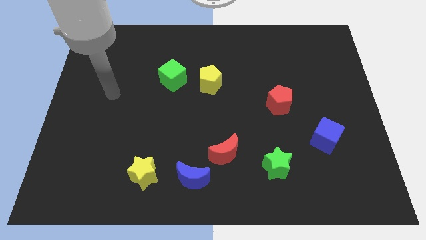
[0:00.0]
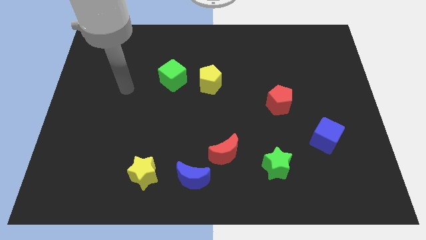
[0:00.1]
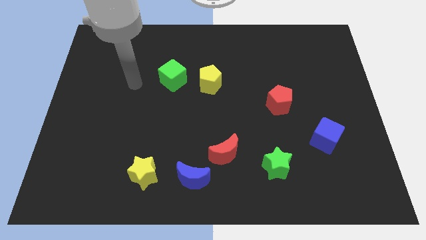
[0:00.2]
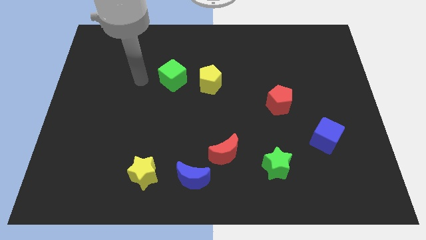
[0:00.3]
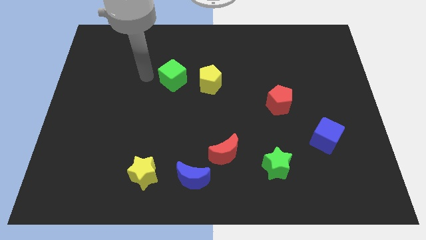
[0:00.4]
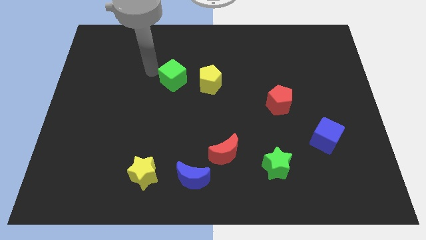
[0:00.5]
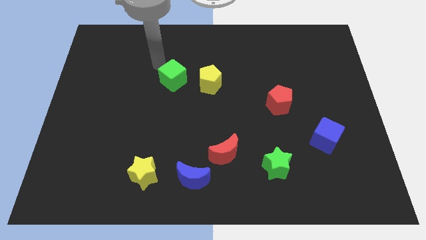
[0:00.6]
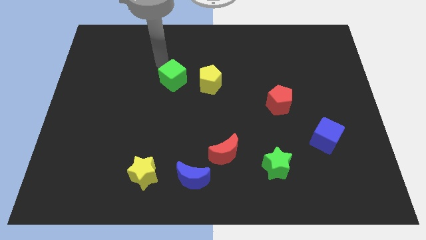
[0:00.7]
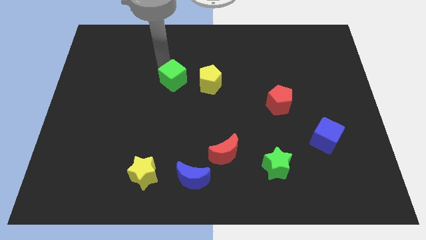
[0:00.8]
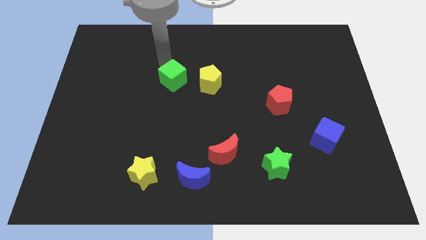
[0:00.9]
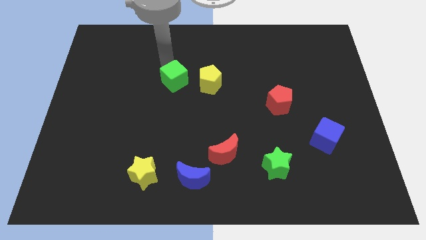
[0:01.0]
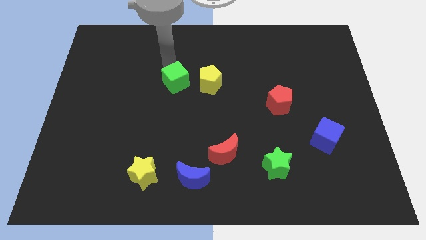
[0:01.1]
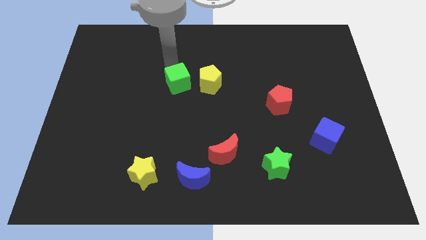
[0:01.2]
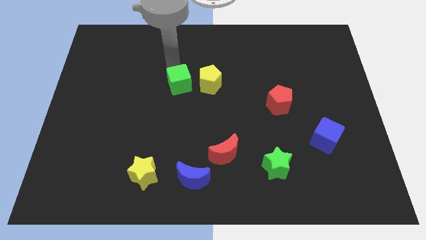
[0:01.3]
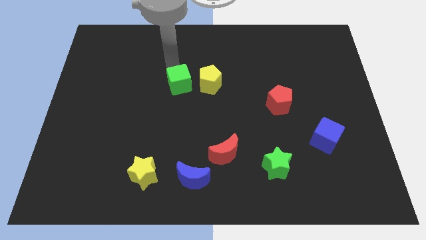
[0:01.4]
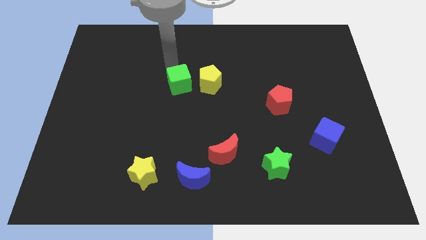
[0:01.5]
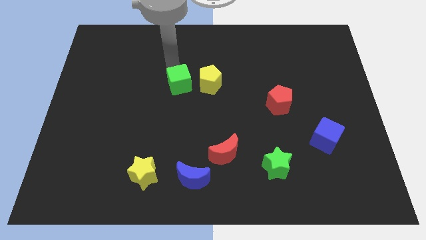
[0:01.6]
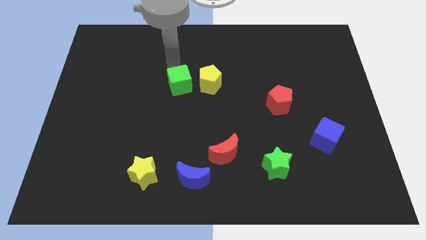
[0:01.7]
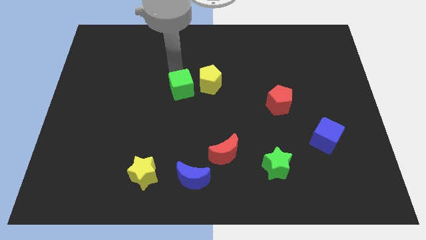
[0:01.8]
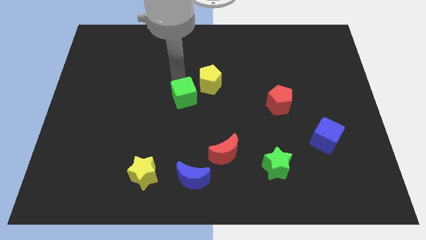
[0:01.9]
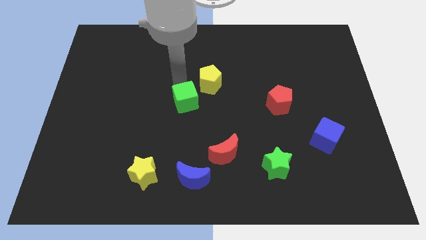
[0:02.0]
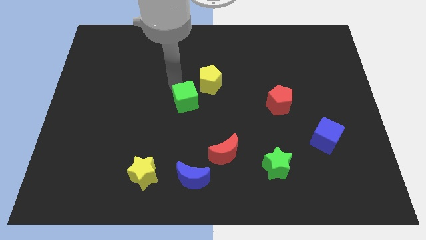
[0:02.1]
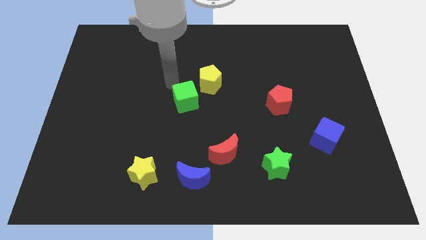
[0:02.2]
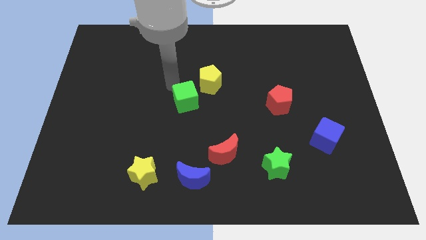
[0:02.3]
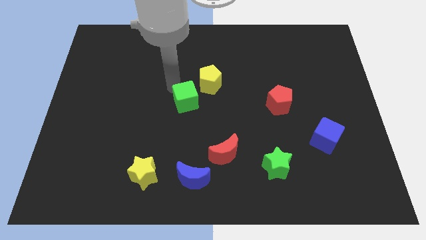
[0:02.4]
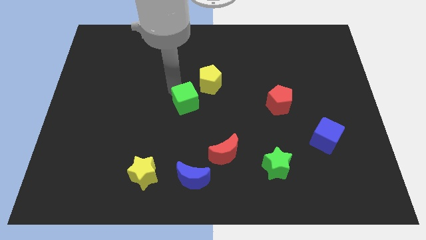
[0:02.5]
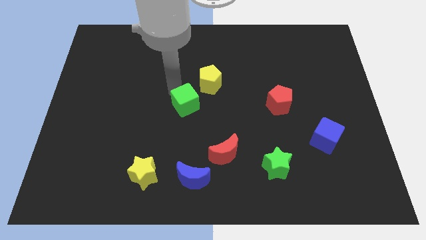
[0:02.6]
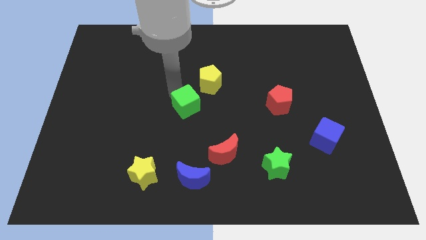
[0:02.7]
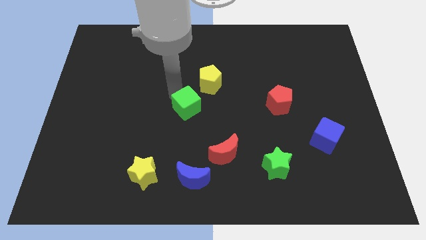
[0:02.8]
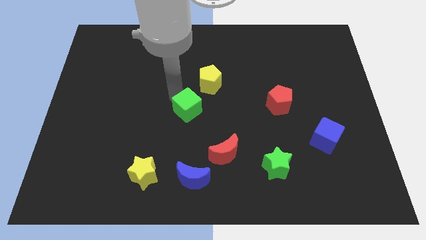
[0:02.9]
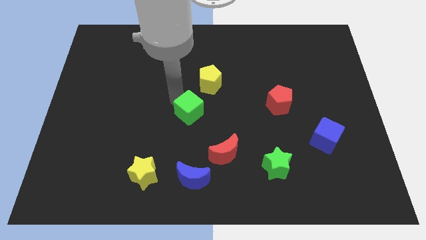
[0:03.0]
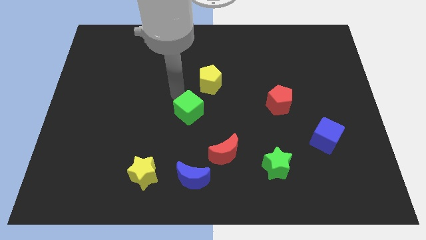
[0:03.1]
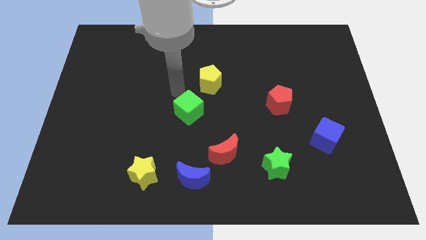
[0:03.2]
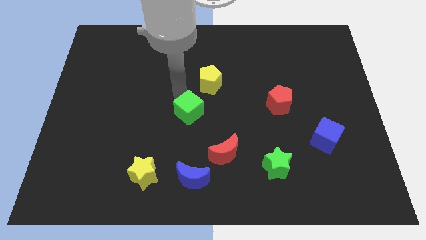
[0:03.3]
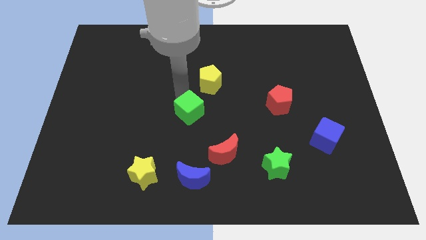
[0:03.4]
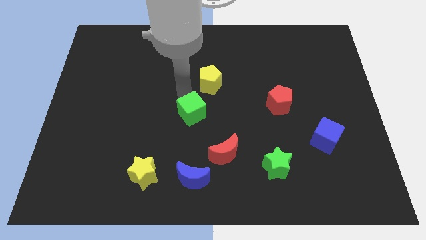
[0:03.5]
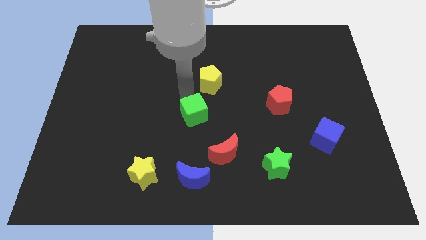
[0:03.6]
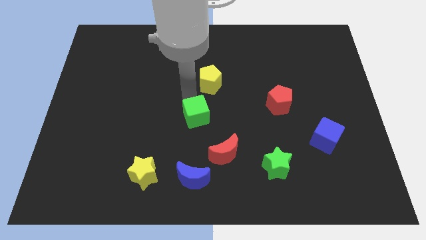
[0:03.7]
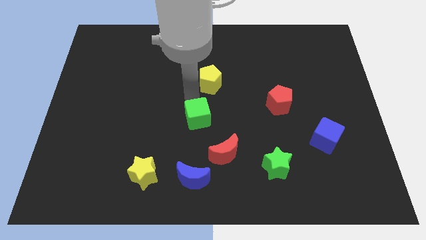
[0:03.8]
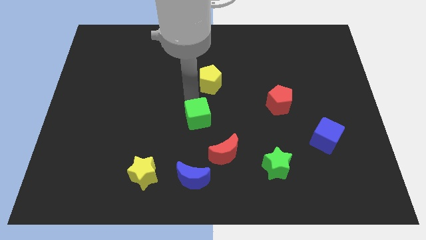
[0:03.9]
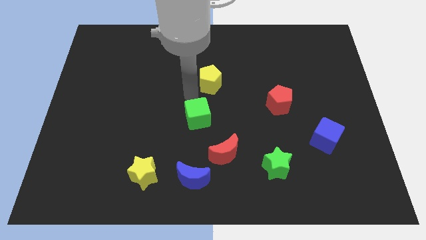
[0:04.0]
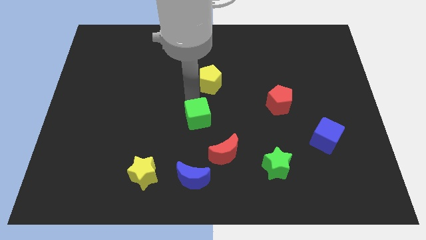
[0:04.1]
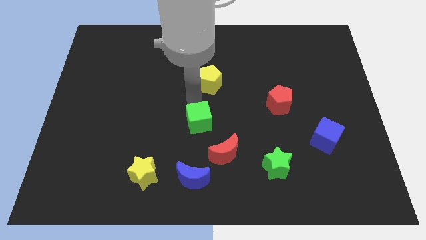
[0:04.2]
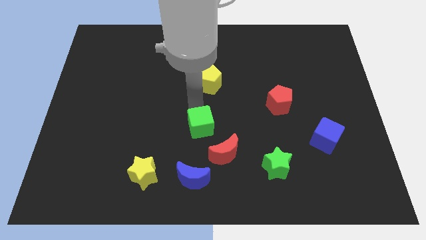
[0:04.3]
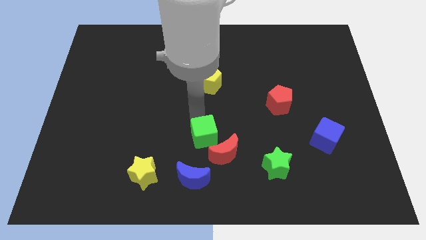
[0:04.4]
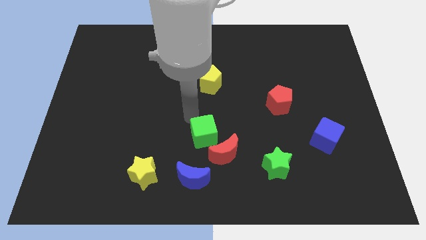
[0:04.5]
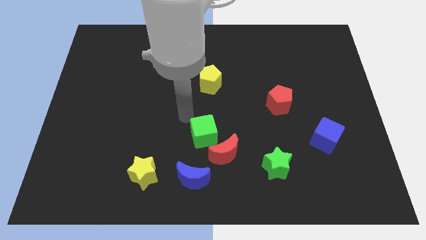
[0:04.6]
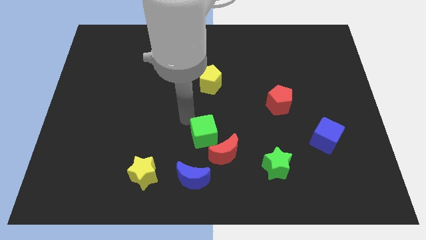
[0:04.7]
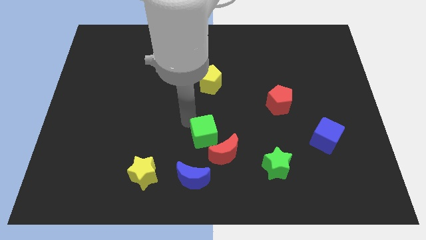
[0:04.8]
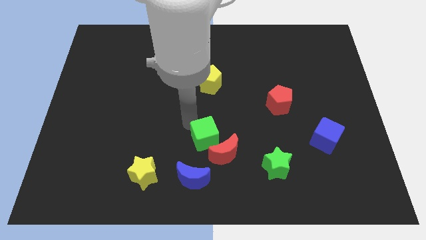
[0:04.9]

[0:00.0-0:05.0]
move the green cube towards the red moon

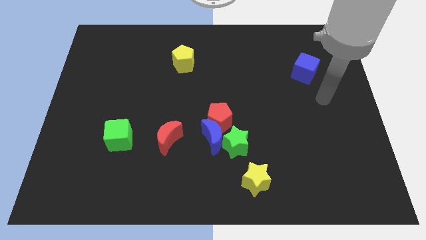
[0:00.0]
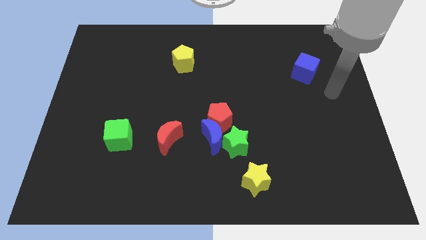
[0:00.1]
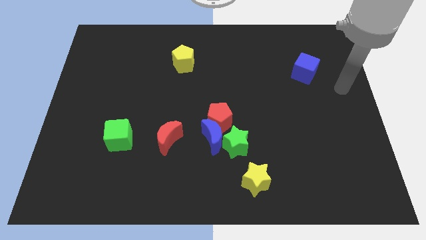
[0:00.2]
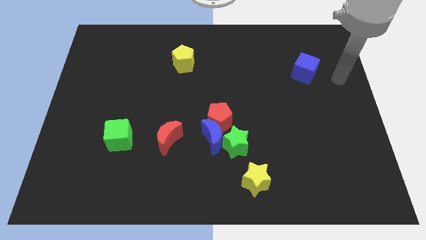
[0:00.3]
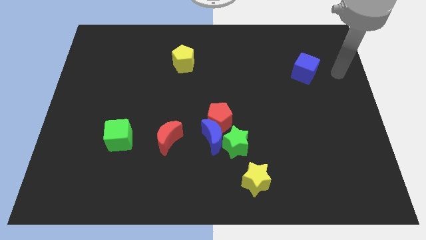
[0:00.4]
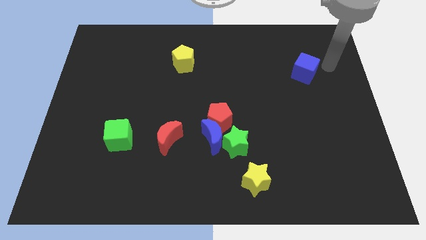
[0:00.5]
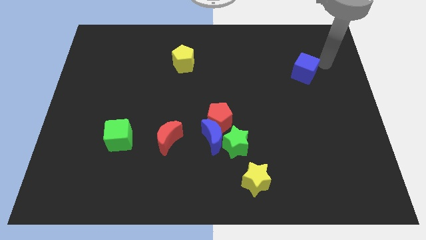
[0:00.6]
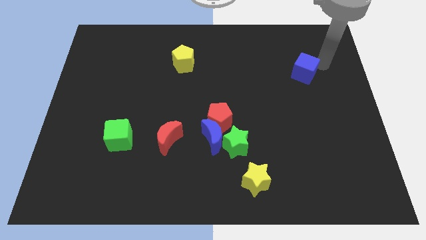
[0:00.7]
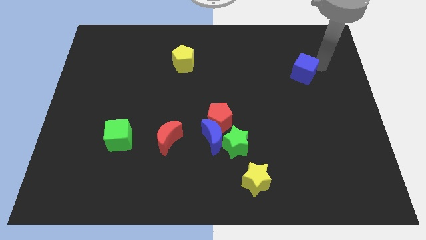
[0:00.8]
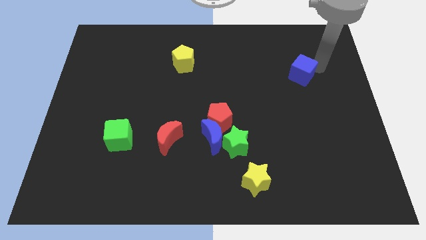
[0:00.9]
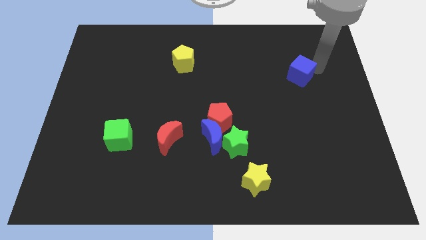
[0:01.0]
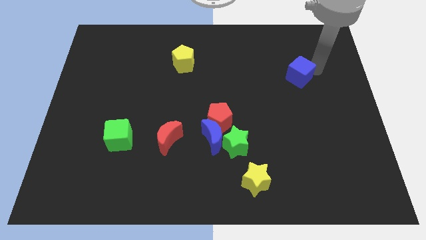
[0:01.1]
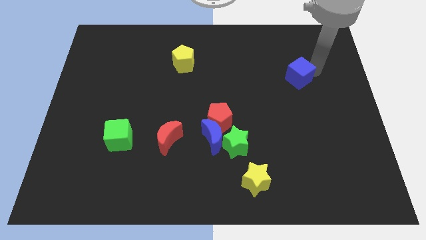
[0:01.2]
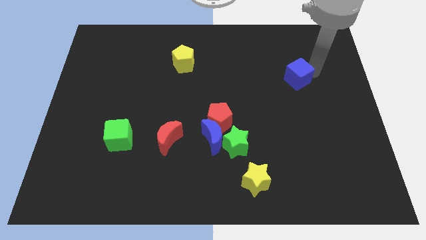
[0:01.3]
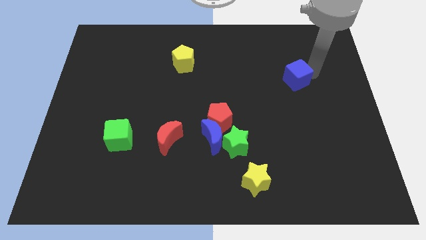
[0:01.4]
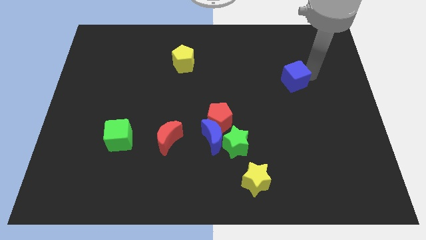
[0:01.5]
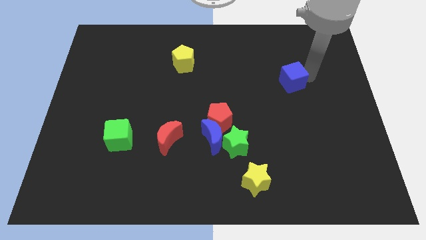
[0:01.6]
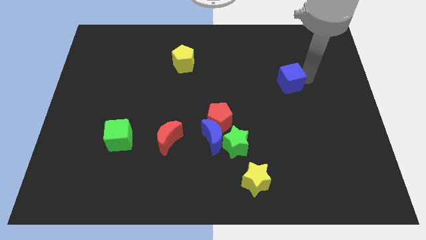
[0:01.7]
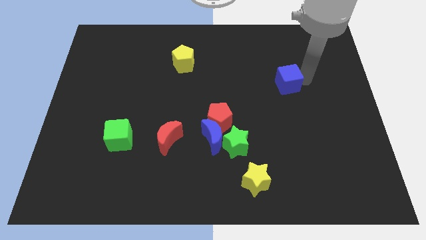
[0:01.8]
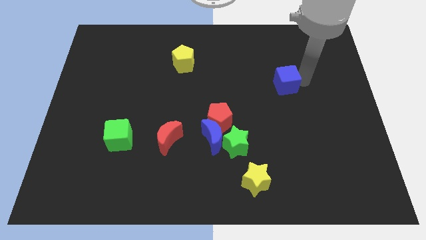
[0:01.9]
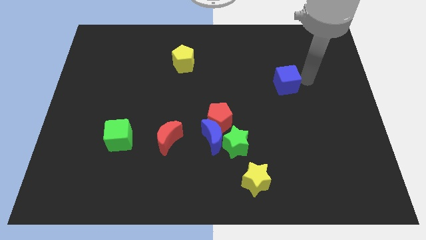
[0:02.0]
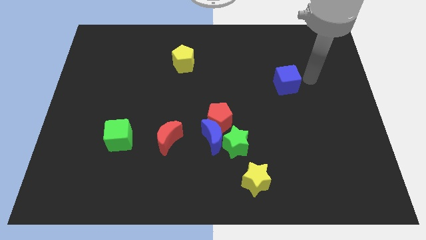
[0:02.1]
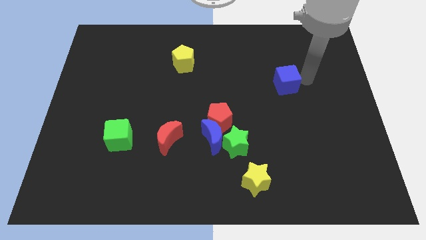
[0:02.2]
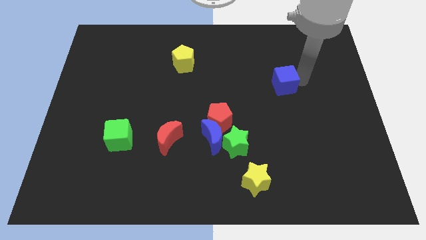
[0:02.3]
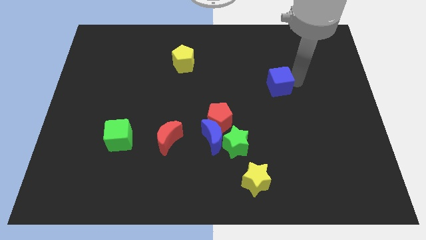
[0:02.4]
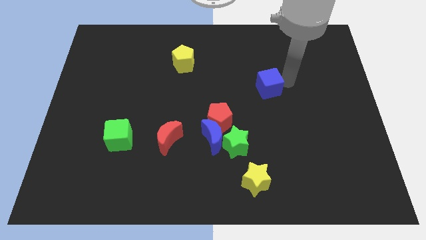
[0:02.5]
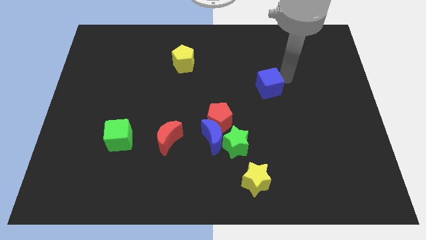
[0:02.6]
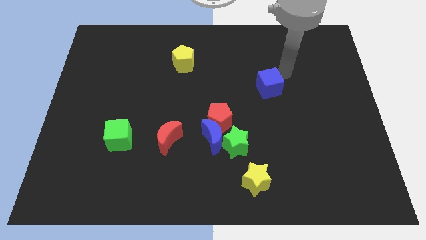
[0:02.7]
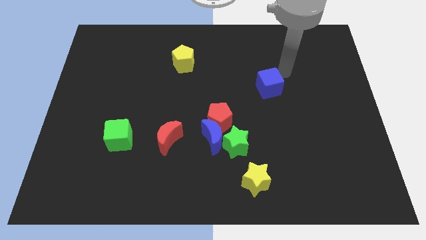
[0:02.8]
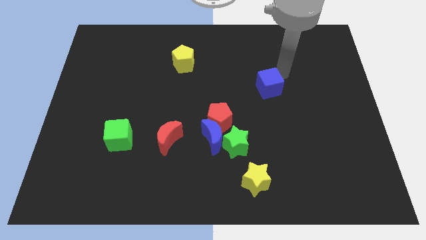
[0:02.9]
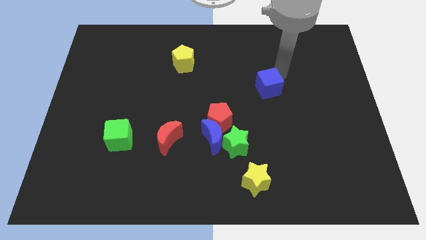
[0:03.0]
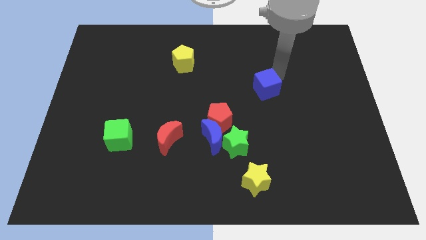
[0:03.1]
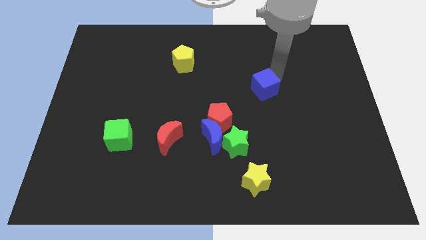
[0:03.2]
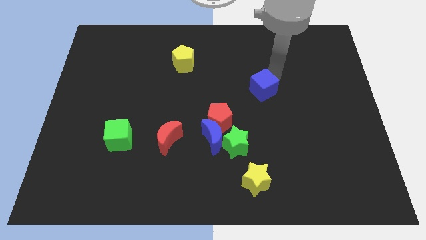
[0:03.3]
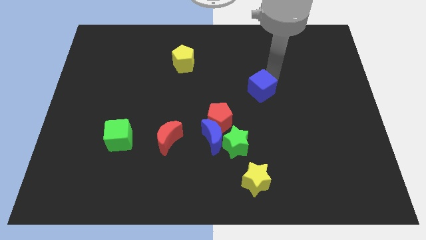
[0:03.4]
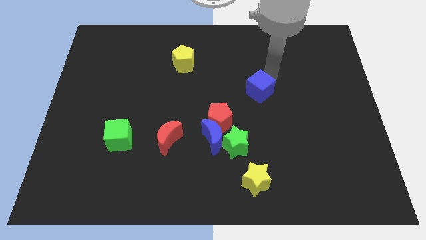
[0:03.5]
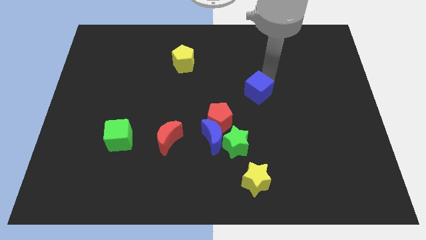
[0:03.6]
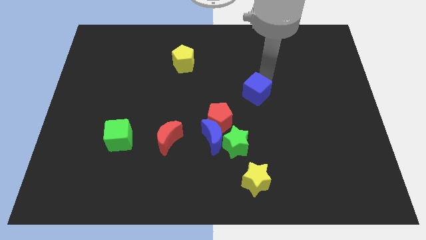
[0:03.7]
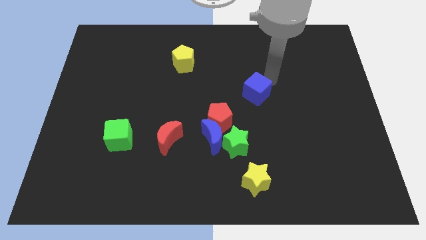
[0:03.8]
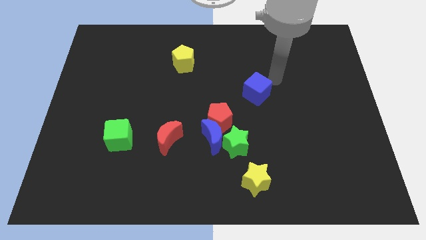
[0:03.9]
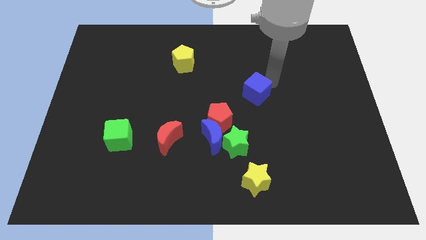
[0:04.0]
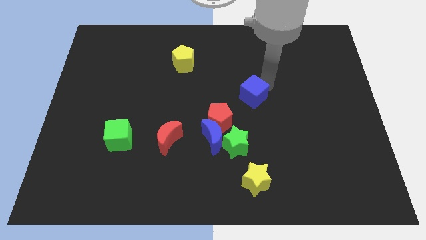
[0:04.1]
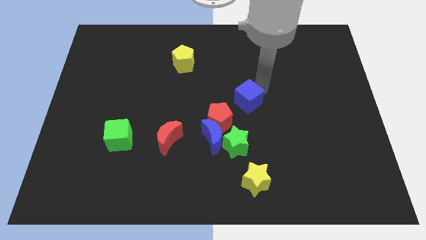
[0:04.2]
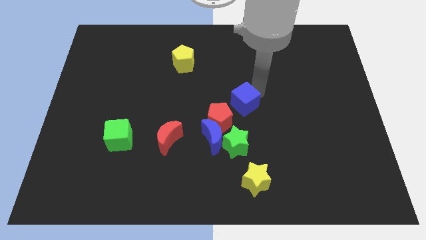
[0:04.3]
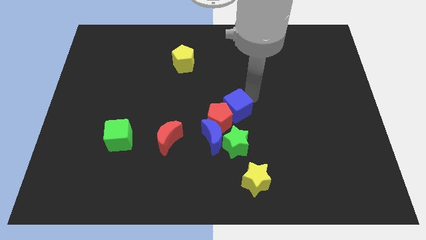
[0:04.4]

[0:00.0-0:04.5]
push the blue cube close to the red pentagon
